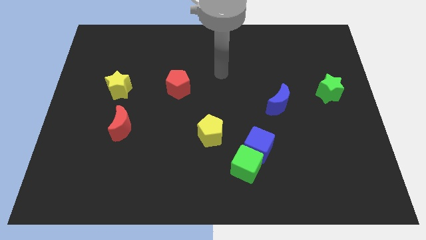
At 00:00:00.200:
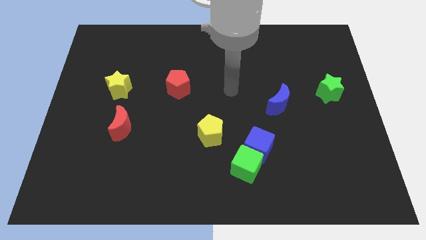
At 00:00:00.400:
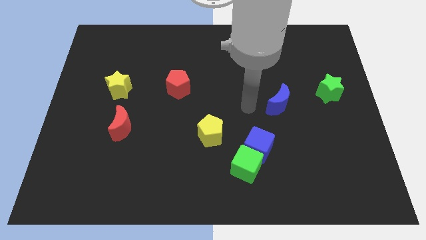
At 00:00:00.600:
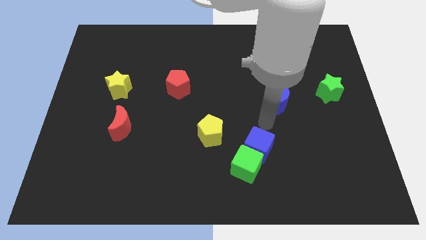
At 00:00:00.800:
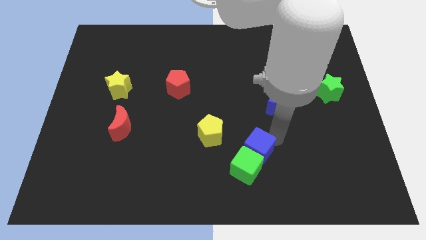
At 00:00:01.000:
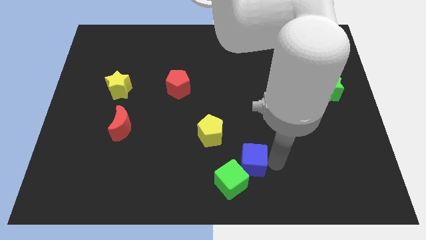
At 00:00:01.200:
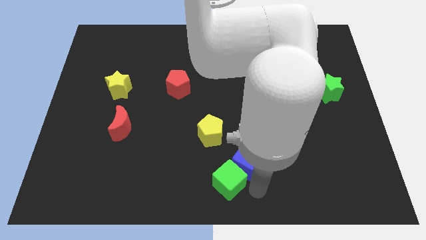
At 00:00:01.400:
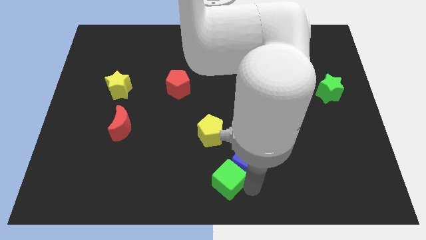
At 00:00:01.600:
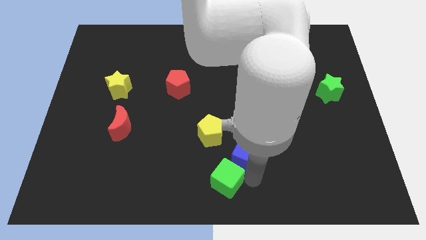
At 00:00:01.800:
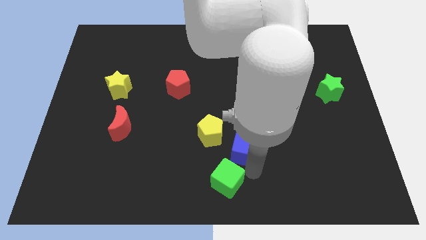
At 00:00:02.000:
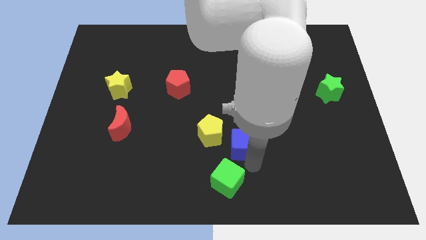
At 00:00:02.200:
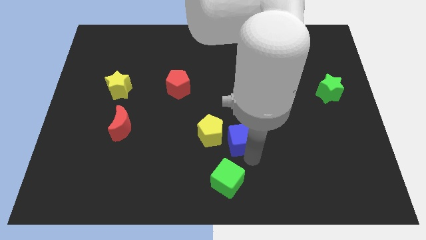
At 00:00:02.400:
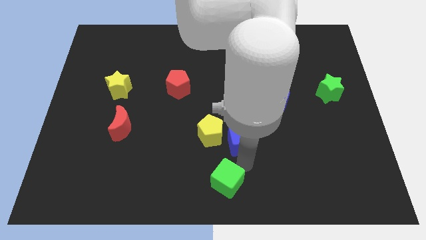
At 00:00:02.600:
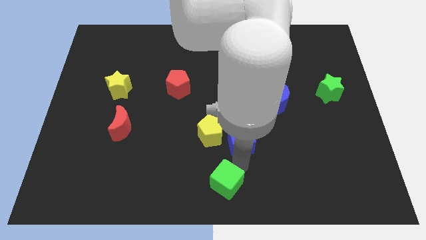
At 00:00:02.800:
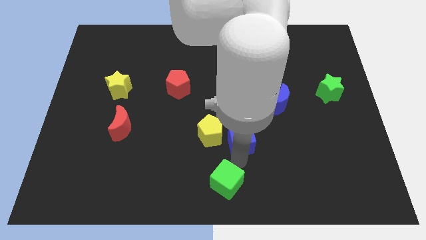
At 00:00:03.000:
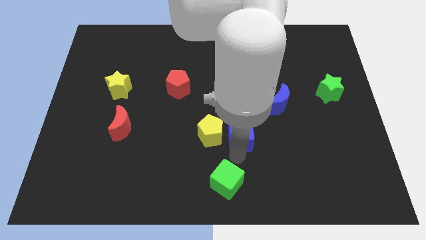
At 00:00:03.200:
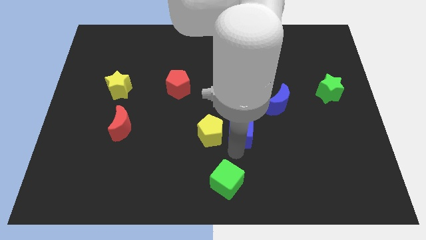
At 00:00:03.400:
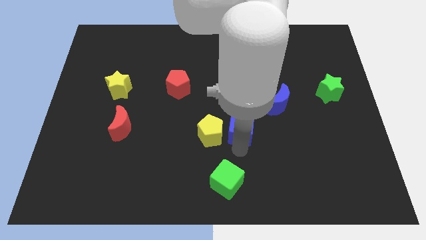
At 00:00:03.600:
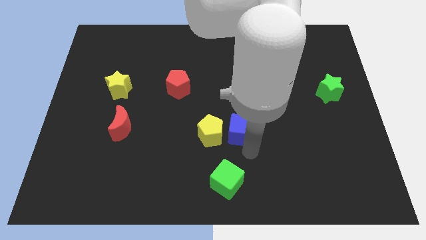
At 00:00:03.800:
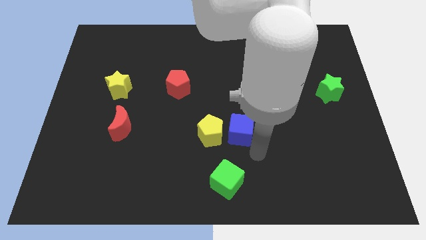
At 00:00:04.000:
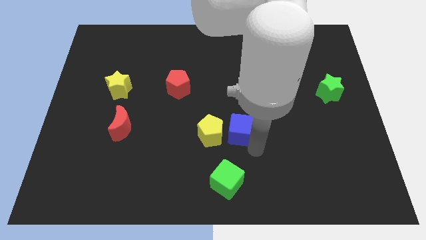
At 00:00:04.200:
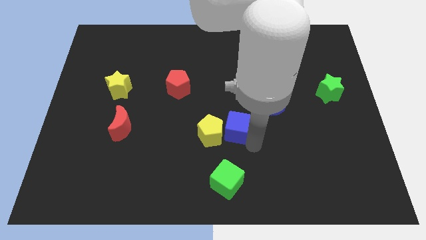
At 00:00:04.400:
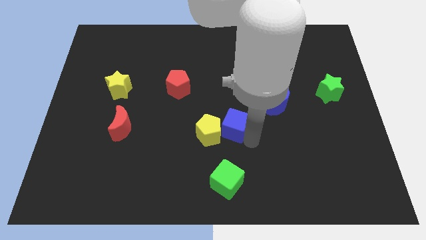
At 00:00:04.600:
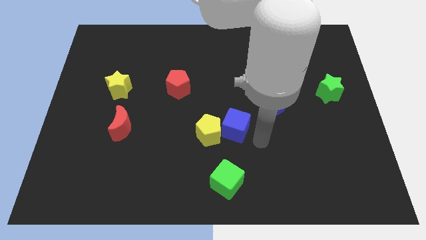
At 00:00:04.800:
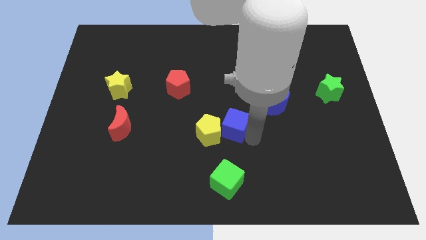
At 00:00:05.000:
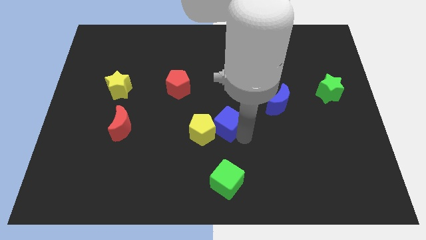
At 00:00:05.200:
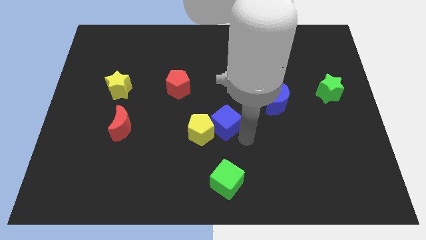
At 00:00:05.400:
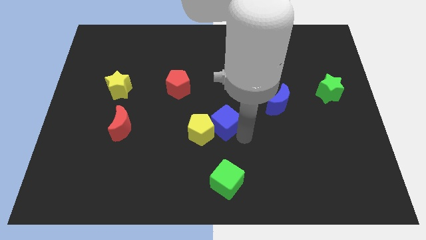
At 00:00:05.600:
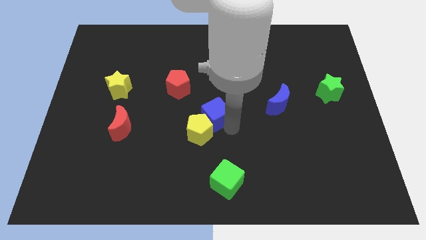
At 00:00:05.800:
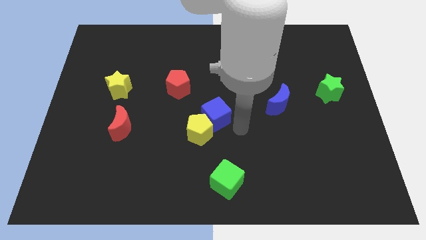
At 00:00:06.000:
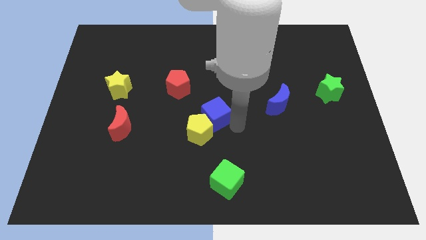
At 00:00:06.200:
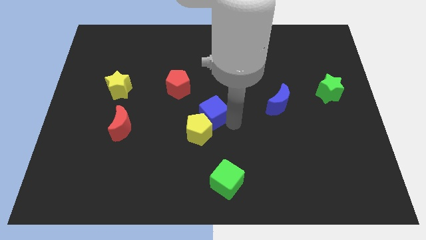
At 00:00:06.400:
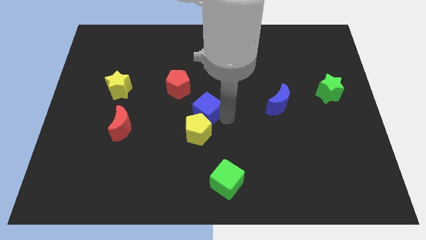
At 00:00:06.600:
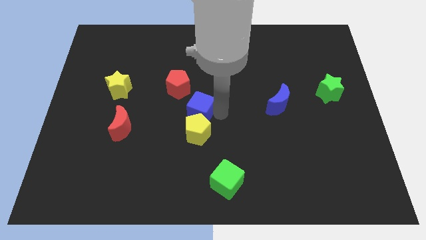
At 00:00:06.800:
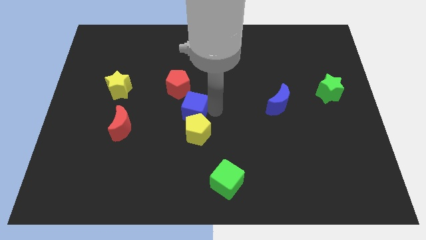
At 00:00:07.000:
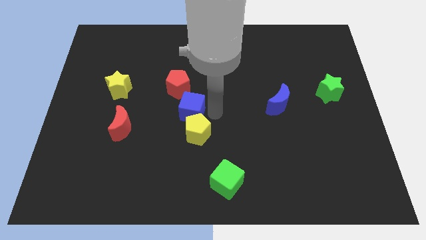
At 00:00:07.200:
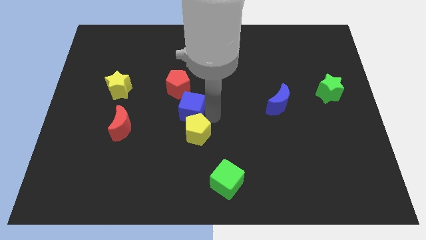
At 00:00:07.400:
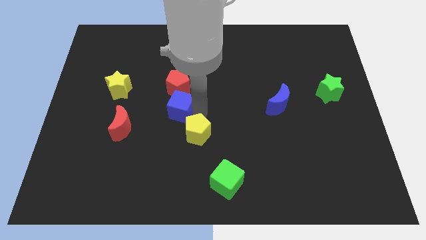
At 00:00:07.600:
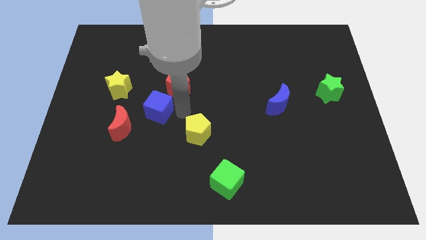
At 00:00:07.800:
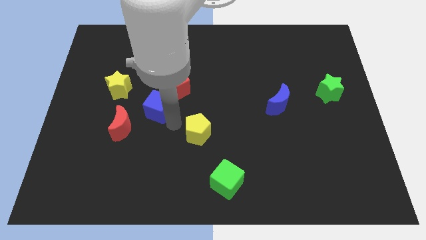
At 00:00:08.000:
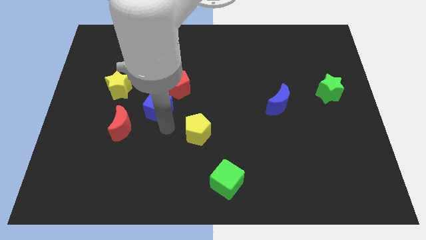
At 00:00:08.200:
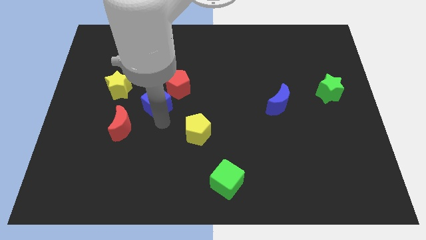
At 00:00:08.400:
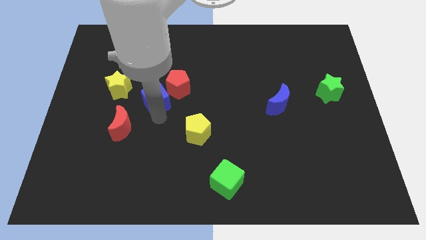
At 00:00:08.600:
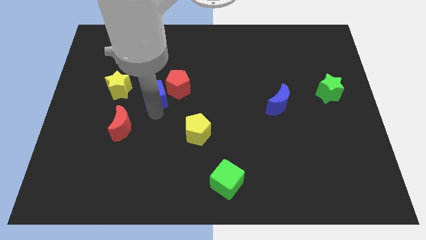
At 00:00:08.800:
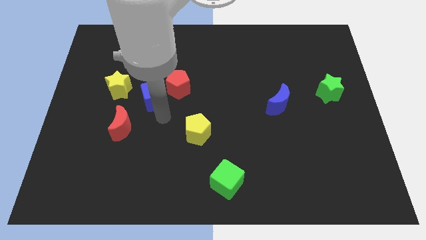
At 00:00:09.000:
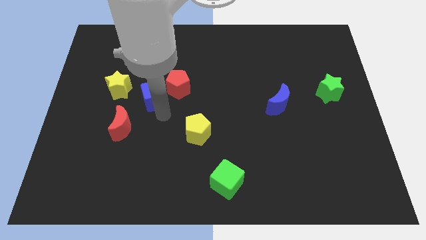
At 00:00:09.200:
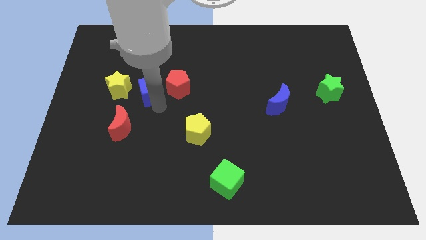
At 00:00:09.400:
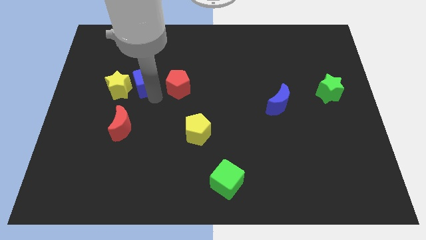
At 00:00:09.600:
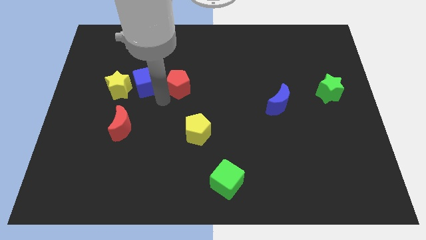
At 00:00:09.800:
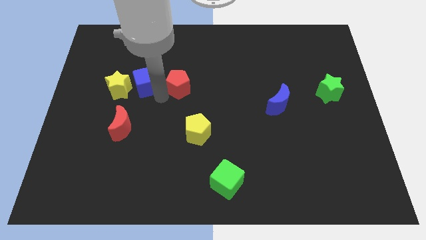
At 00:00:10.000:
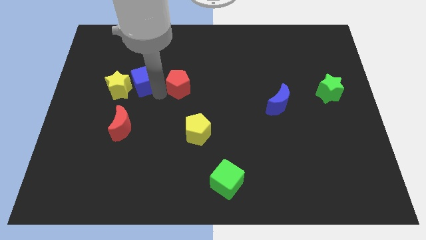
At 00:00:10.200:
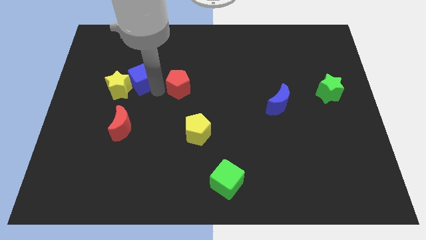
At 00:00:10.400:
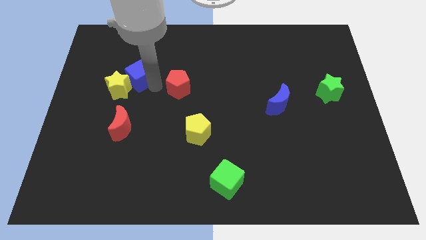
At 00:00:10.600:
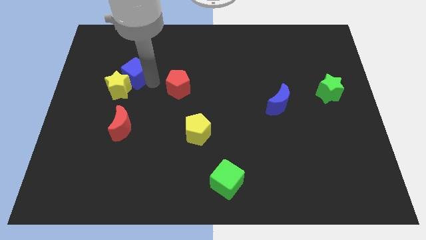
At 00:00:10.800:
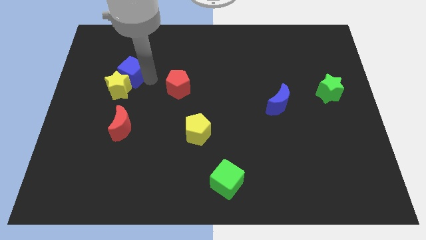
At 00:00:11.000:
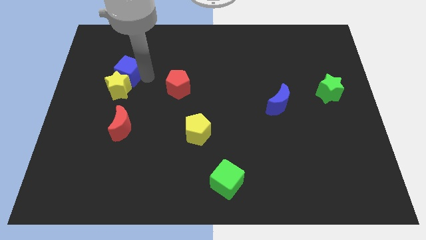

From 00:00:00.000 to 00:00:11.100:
slide the blue cube to the top left side of the yellow star
